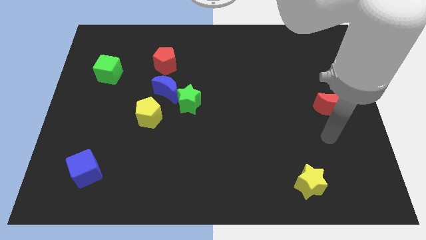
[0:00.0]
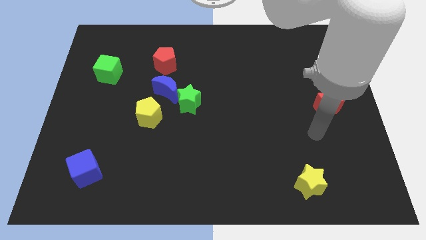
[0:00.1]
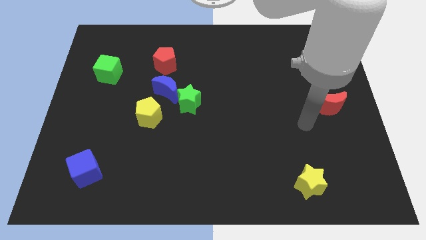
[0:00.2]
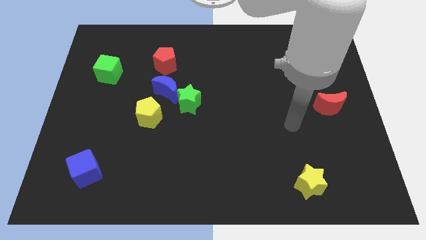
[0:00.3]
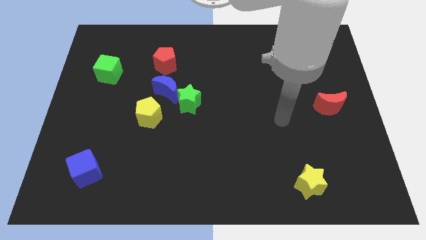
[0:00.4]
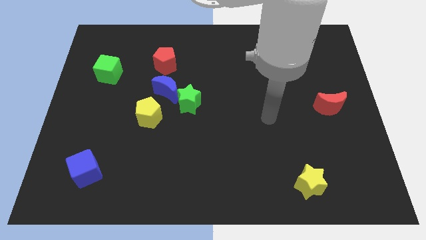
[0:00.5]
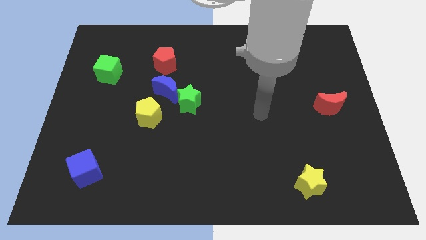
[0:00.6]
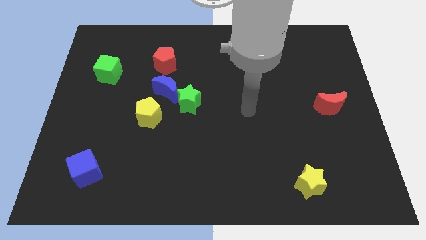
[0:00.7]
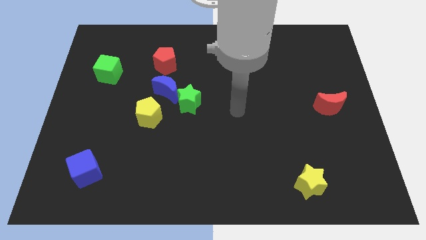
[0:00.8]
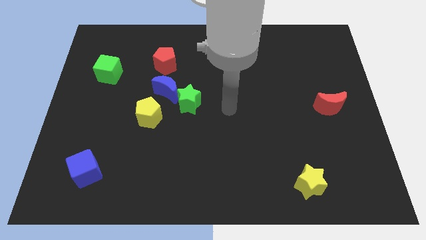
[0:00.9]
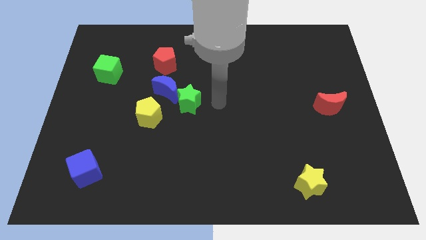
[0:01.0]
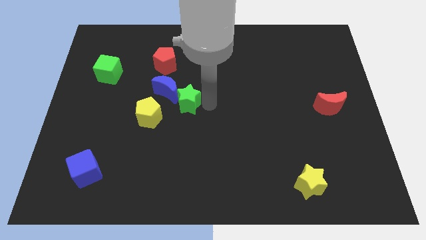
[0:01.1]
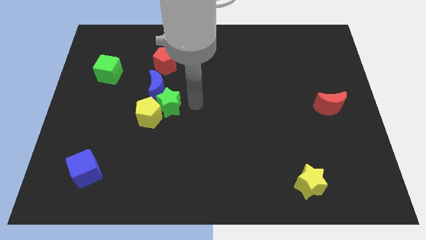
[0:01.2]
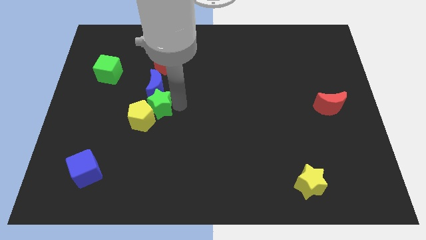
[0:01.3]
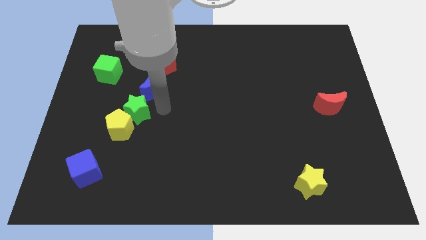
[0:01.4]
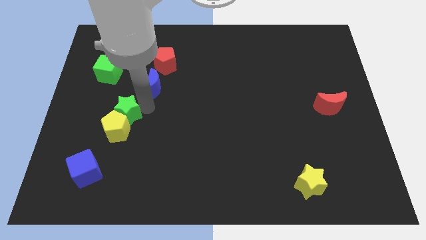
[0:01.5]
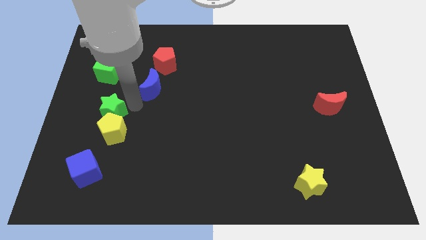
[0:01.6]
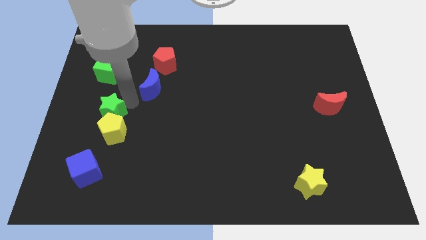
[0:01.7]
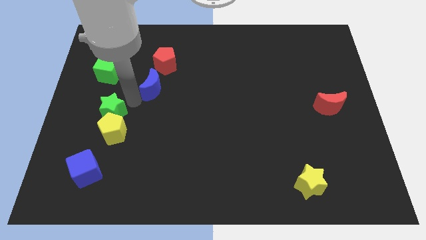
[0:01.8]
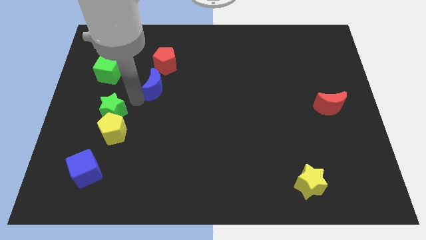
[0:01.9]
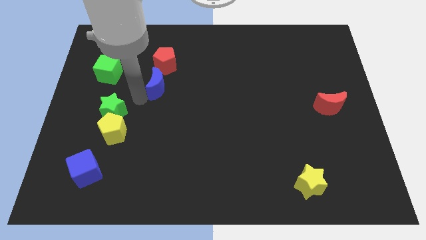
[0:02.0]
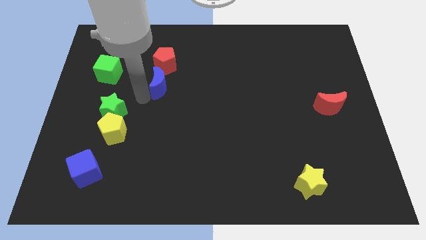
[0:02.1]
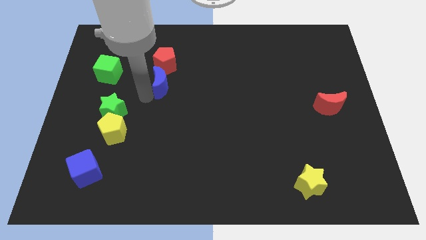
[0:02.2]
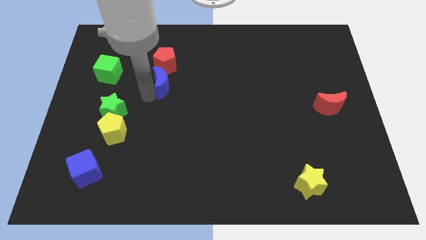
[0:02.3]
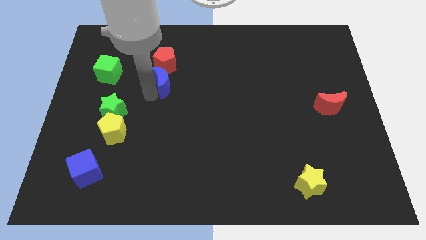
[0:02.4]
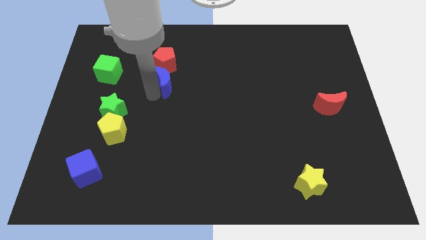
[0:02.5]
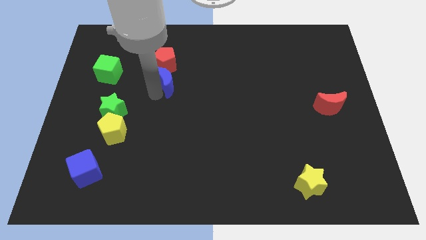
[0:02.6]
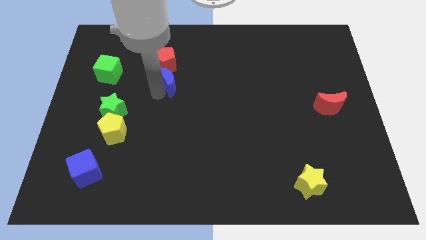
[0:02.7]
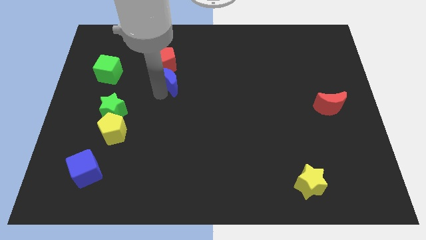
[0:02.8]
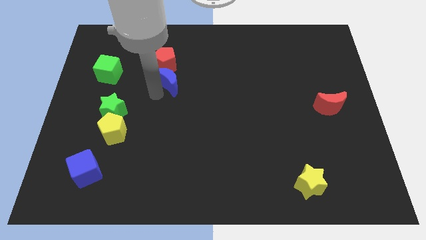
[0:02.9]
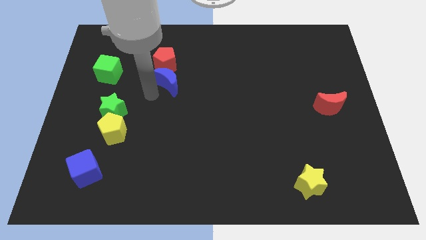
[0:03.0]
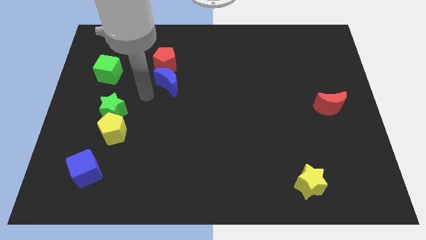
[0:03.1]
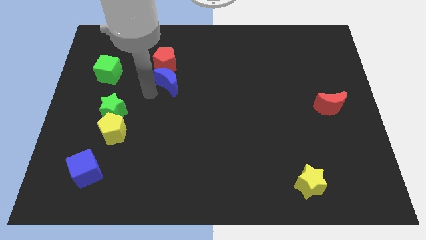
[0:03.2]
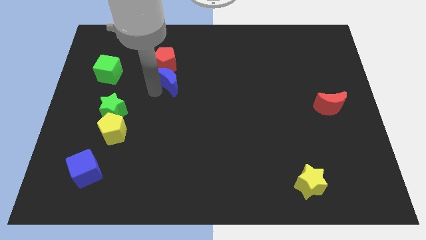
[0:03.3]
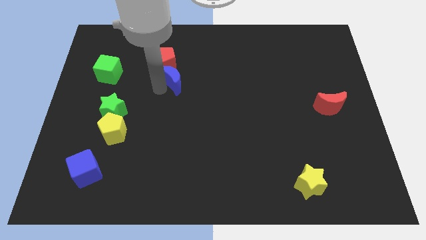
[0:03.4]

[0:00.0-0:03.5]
pull the blue moon apart from the group

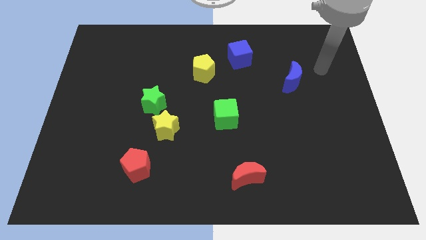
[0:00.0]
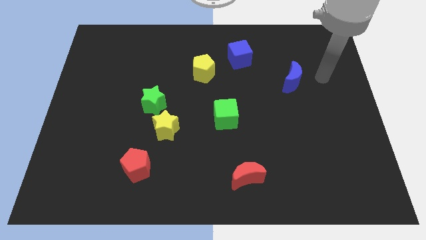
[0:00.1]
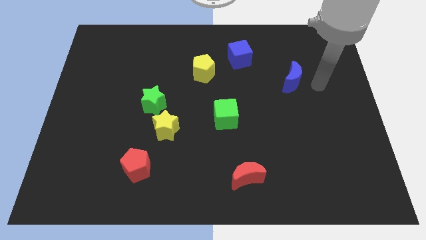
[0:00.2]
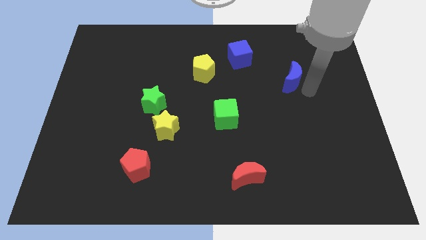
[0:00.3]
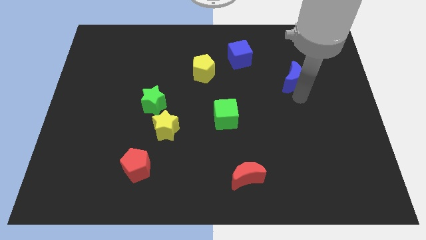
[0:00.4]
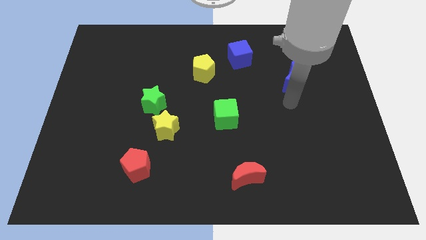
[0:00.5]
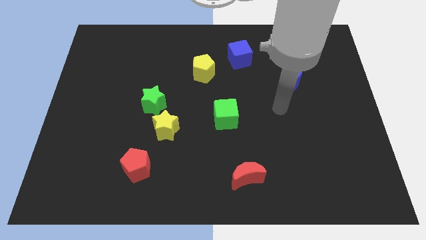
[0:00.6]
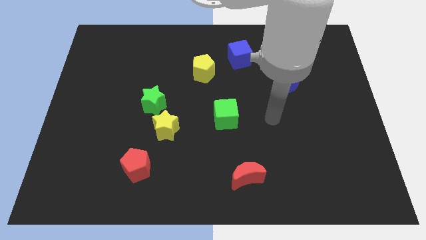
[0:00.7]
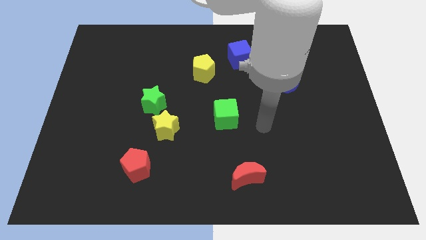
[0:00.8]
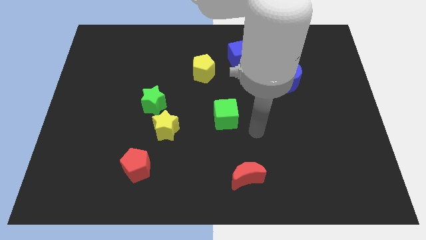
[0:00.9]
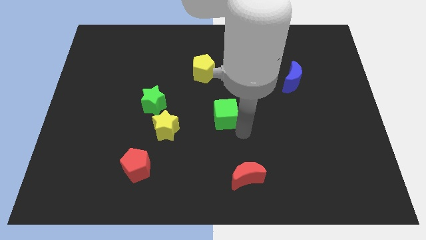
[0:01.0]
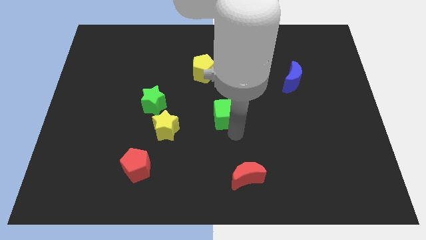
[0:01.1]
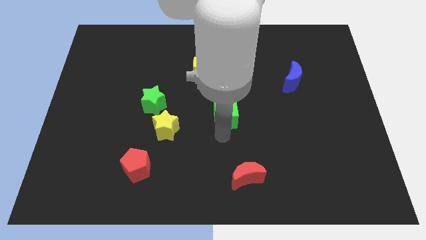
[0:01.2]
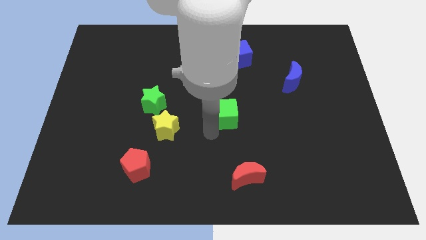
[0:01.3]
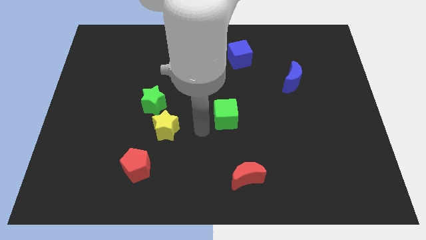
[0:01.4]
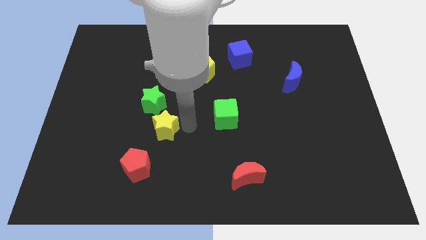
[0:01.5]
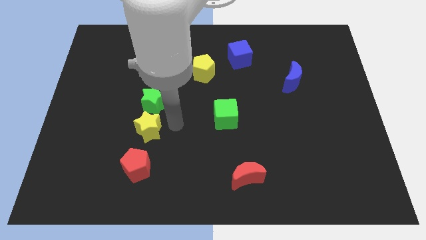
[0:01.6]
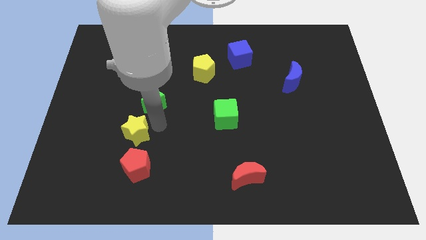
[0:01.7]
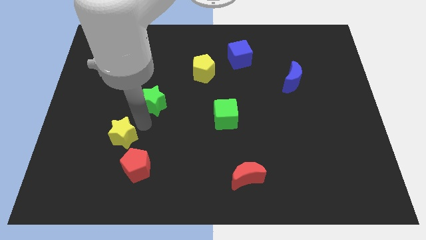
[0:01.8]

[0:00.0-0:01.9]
move the green star away from the yellow star

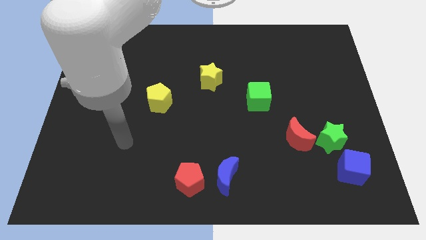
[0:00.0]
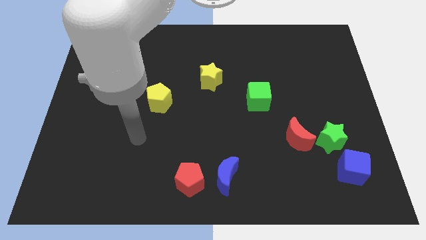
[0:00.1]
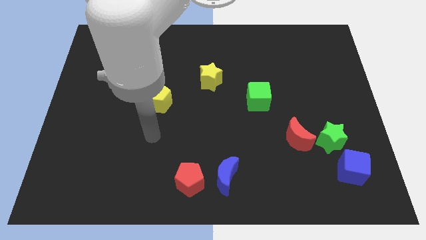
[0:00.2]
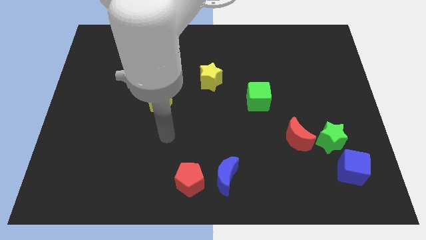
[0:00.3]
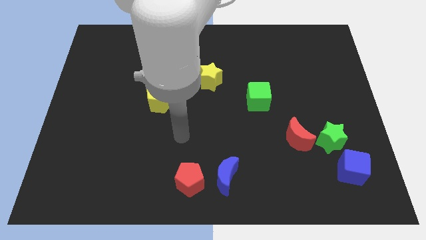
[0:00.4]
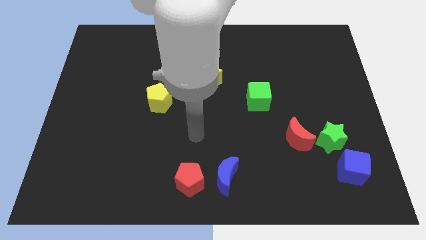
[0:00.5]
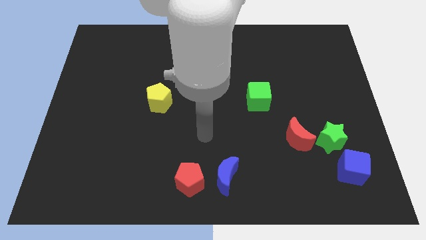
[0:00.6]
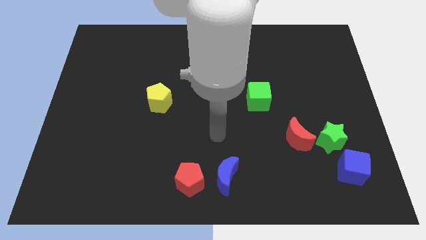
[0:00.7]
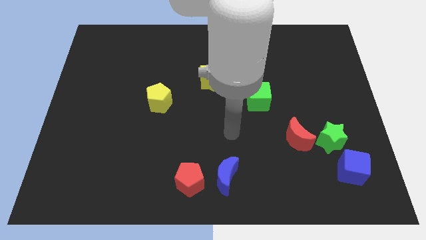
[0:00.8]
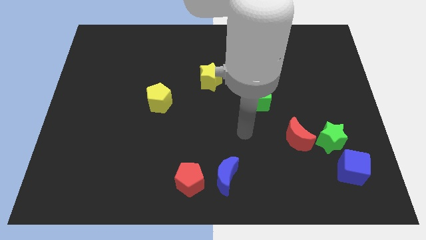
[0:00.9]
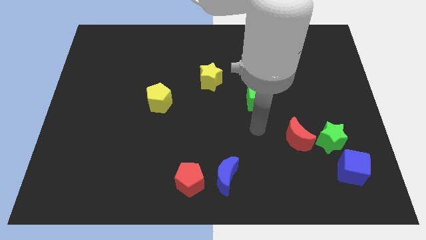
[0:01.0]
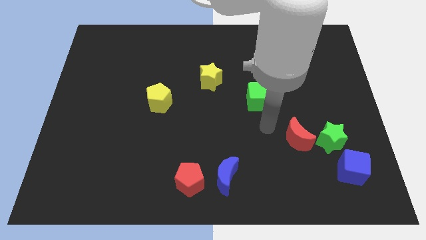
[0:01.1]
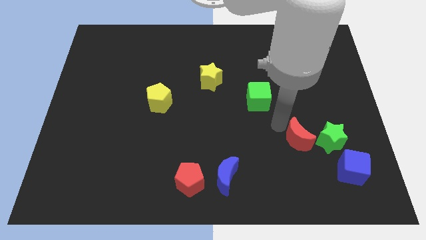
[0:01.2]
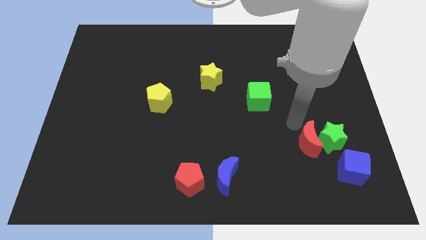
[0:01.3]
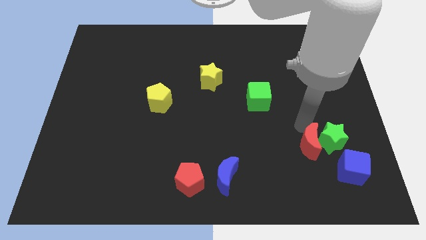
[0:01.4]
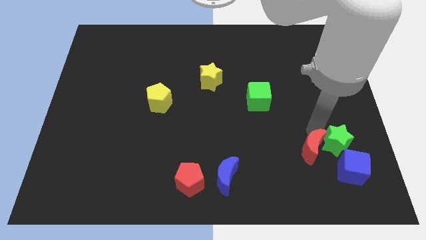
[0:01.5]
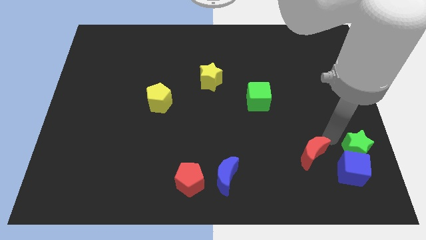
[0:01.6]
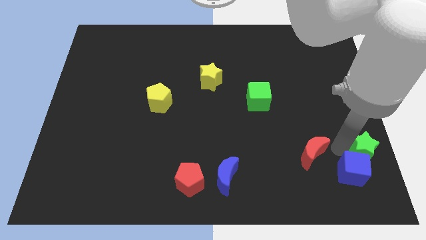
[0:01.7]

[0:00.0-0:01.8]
move the red moon away from the green star

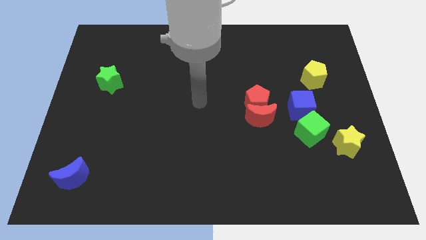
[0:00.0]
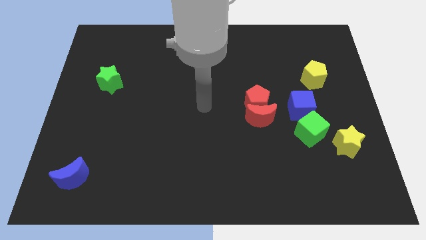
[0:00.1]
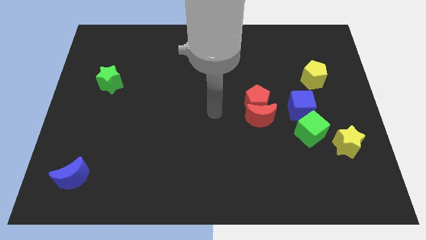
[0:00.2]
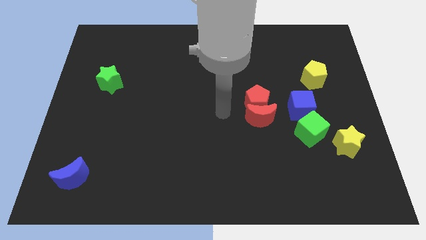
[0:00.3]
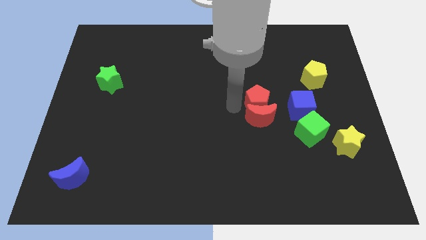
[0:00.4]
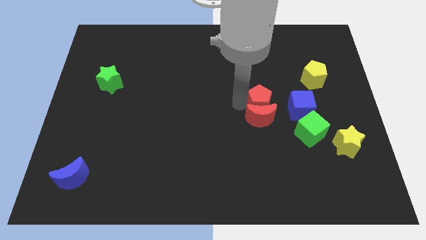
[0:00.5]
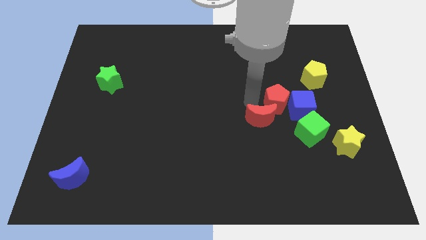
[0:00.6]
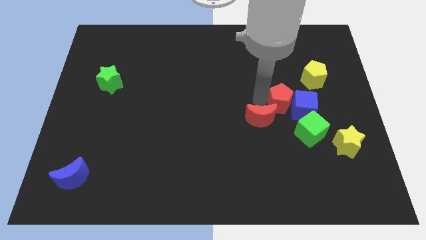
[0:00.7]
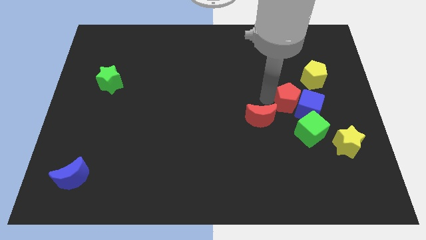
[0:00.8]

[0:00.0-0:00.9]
separate the red moon from the red pentagon and blue cube

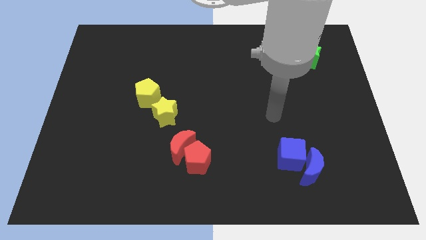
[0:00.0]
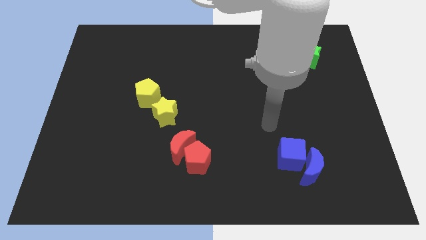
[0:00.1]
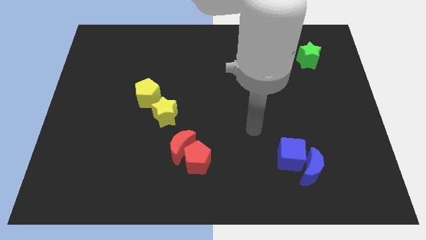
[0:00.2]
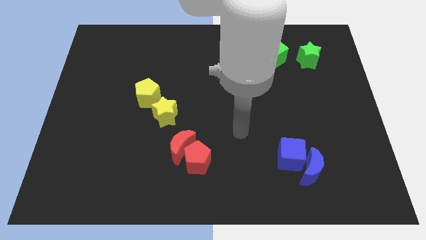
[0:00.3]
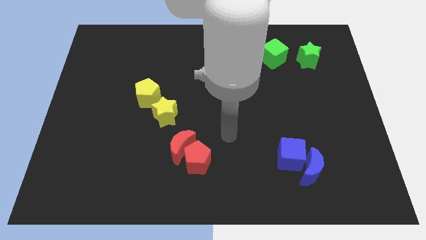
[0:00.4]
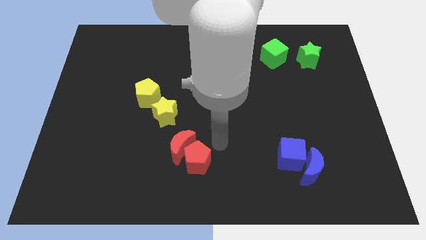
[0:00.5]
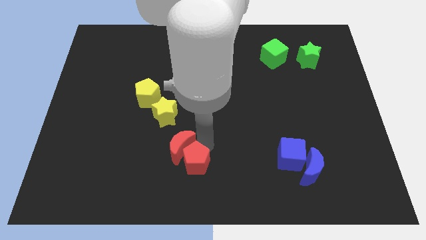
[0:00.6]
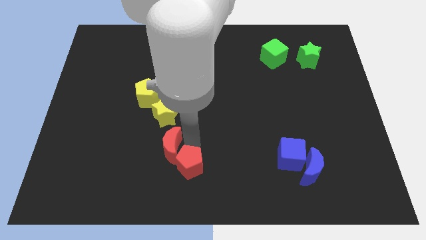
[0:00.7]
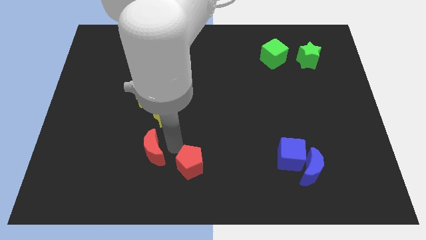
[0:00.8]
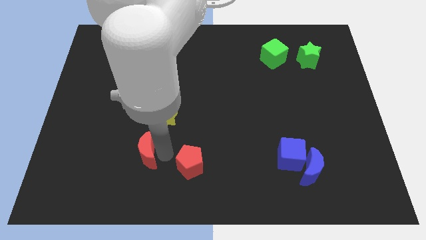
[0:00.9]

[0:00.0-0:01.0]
pull the red pentagon apart from the red moon

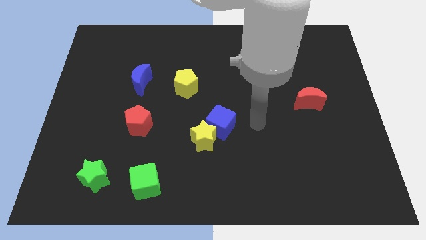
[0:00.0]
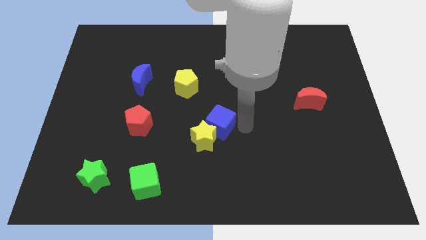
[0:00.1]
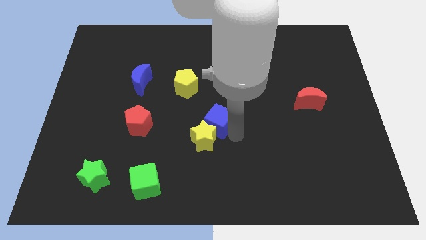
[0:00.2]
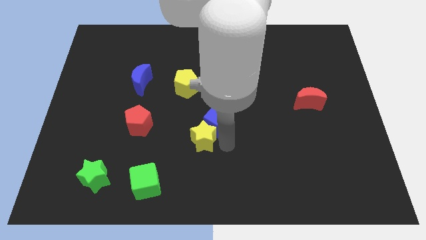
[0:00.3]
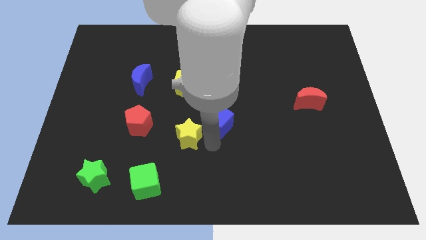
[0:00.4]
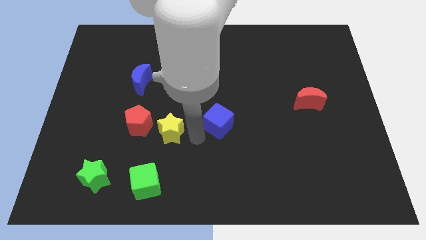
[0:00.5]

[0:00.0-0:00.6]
pull the blue cube apart from the yellow star
